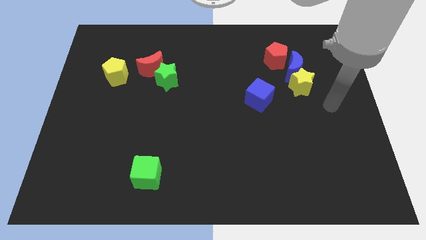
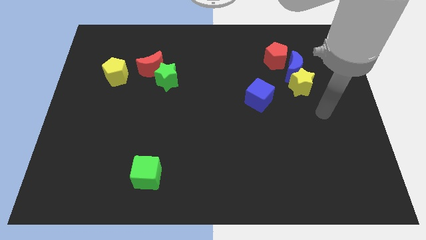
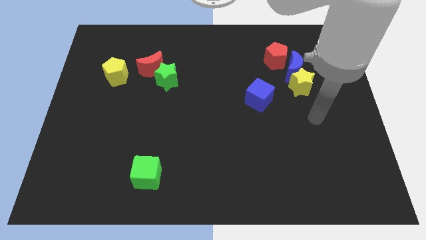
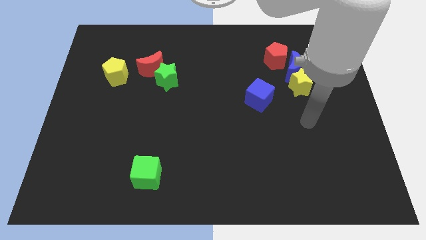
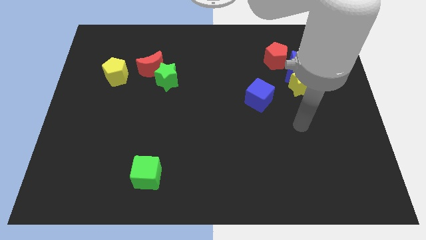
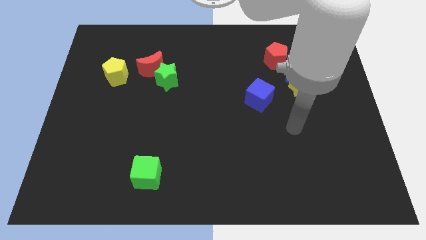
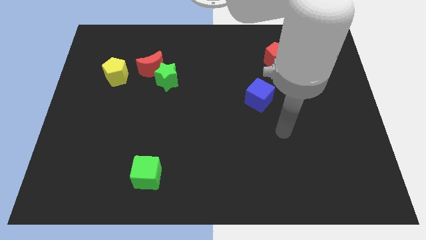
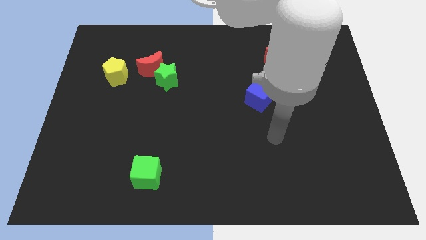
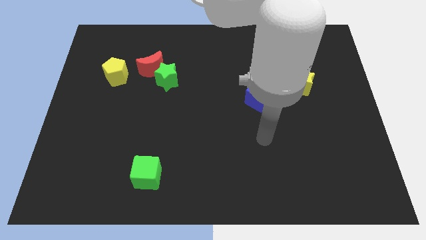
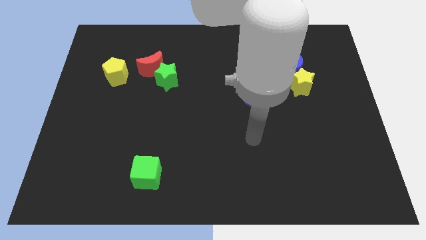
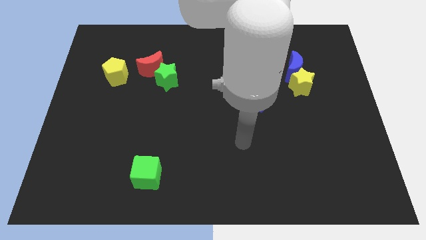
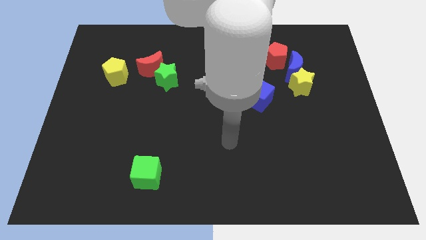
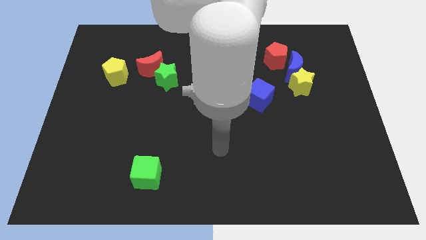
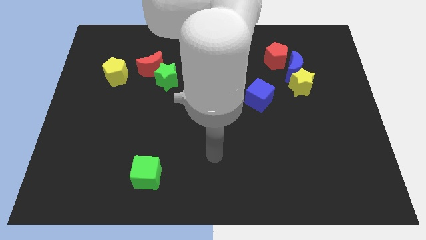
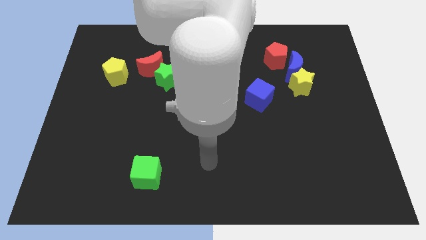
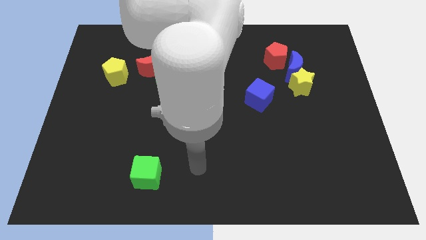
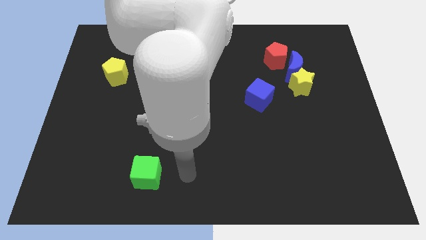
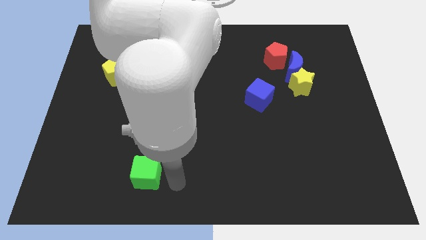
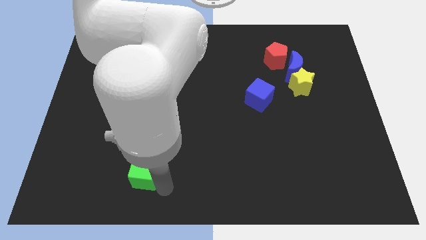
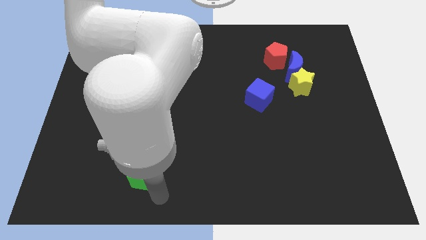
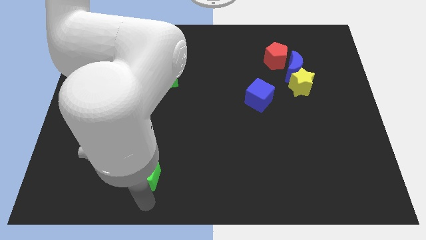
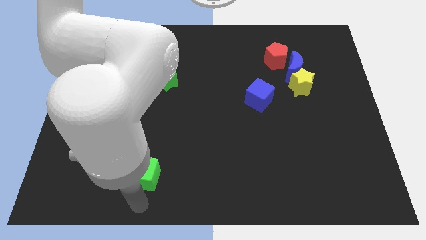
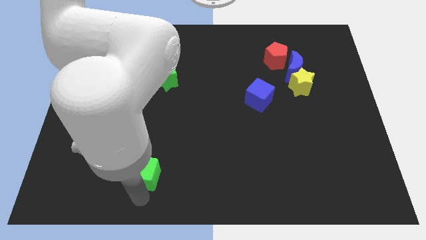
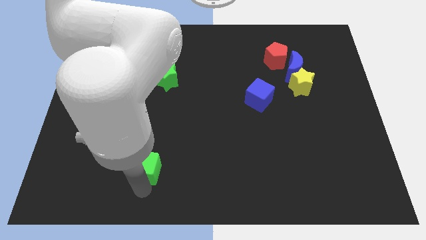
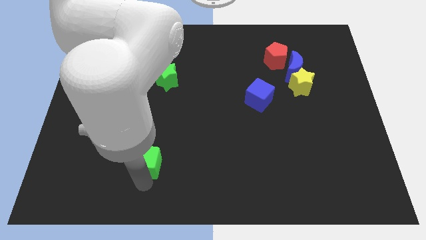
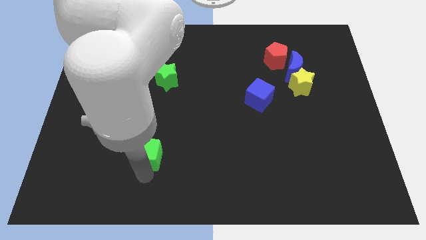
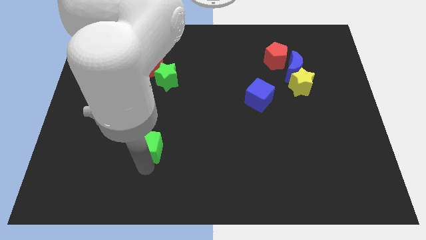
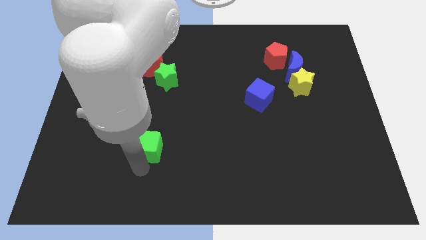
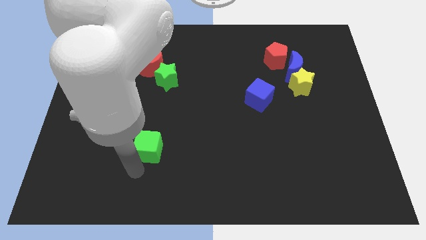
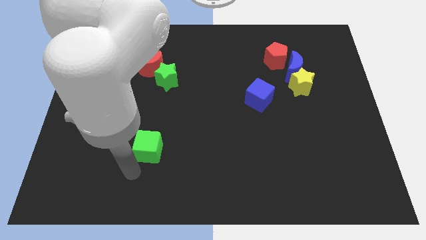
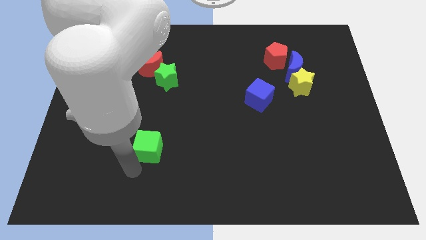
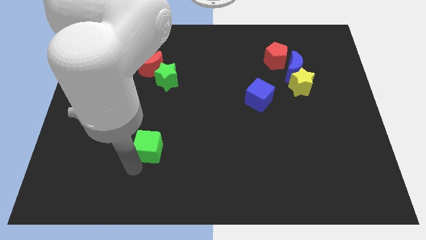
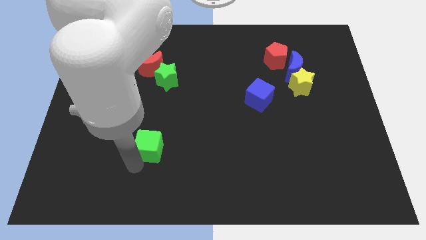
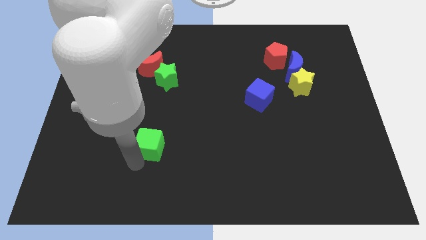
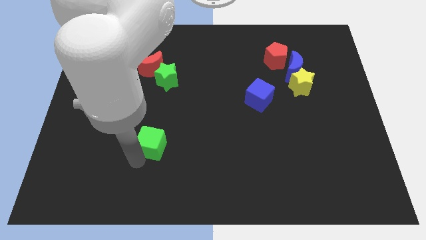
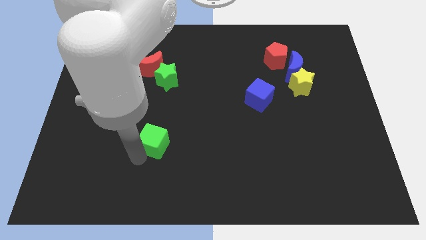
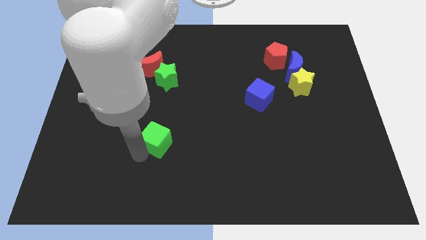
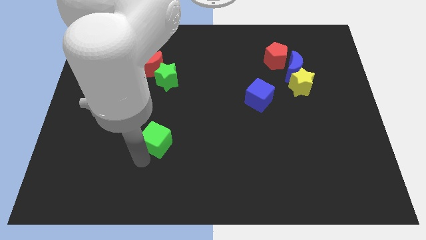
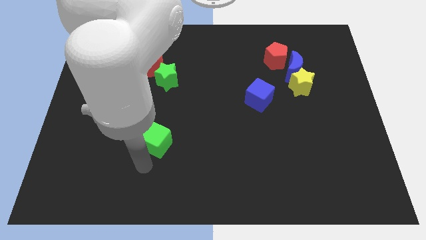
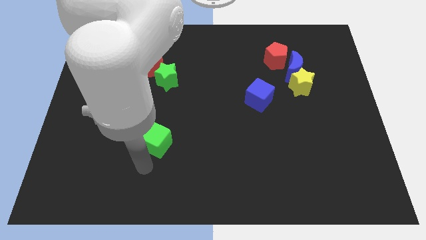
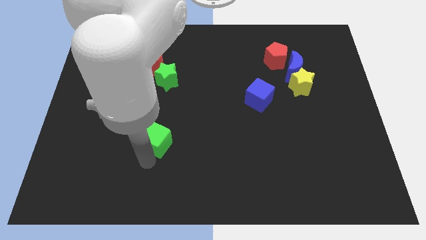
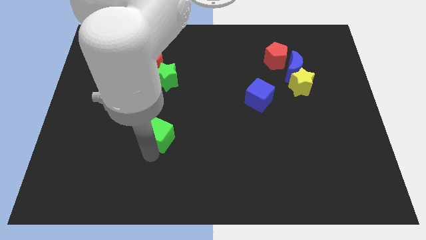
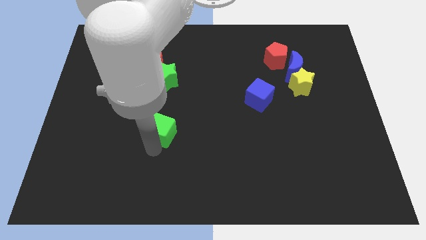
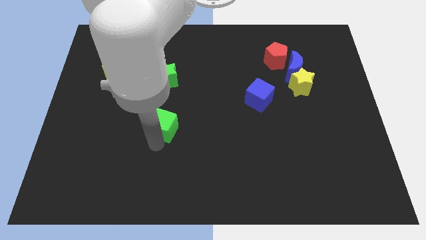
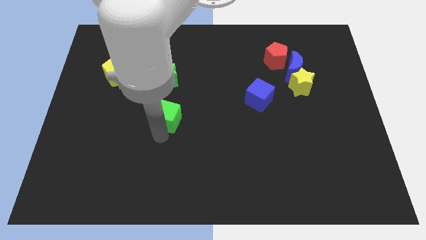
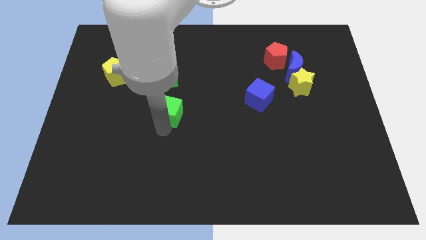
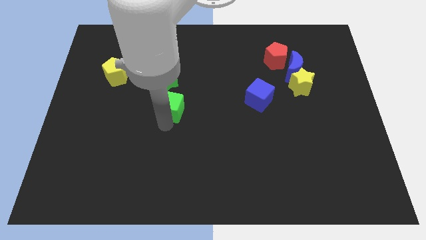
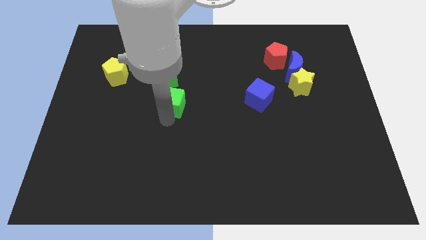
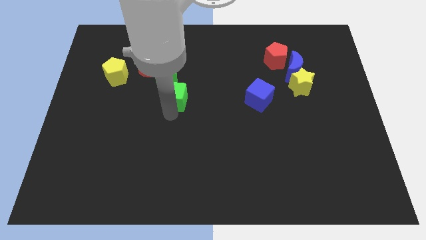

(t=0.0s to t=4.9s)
slide the green cube to the bottom right side of the red moon

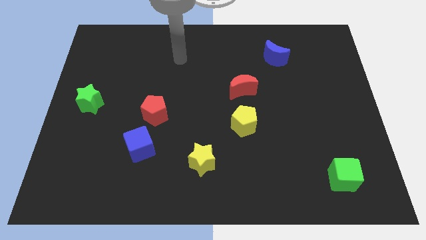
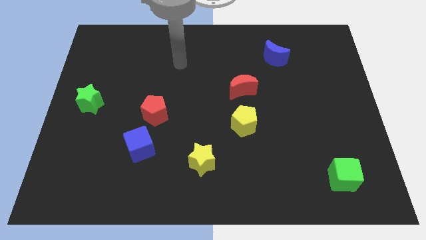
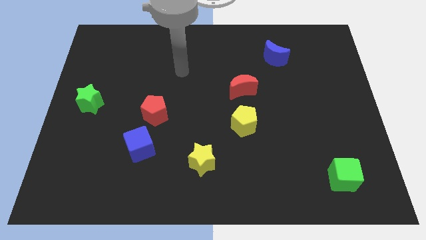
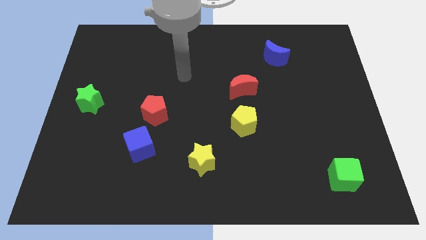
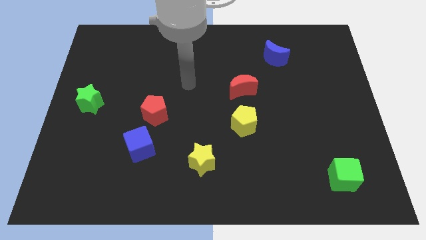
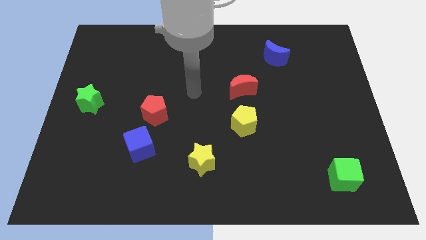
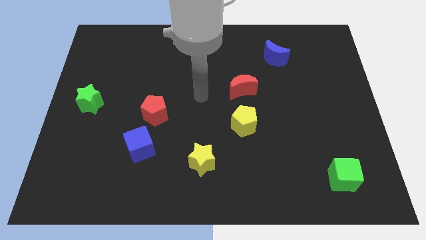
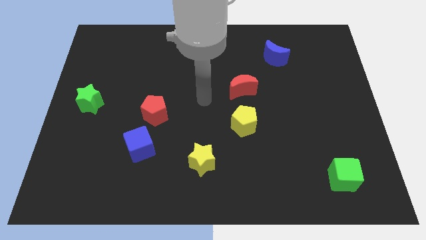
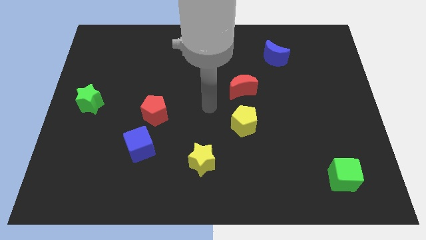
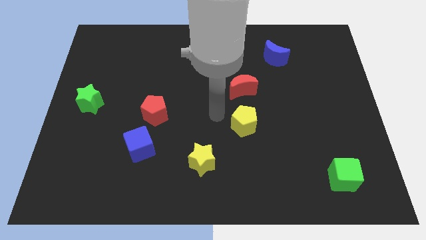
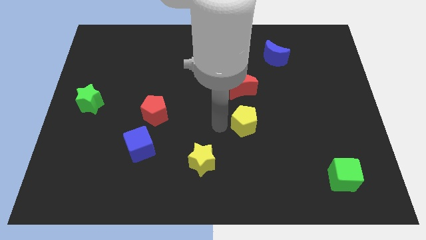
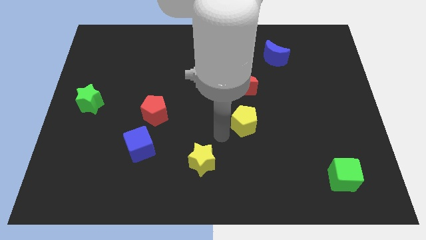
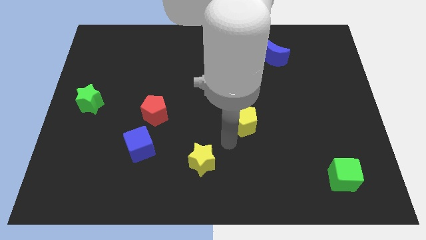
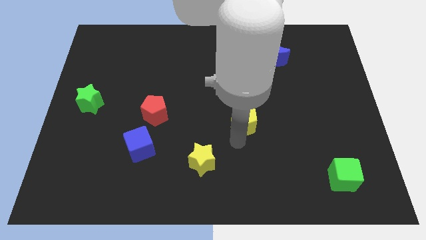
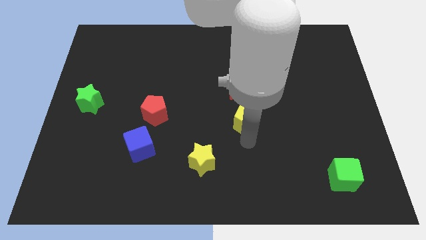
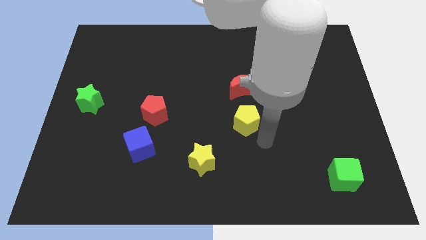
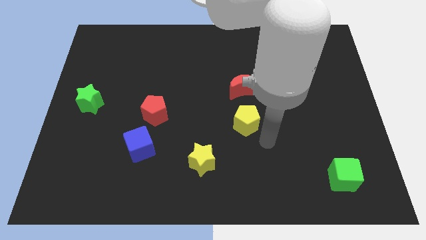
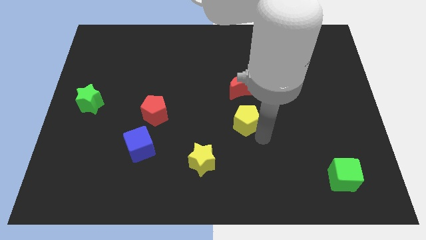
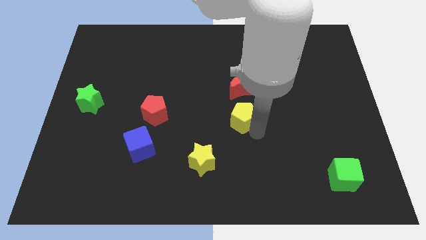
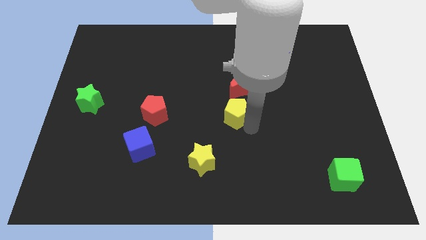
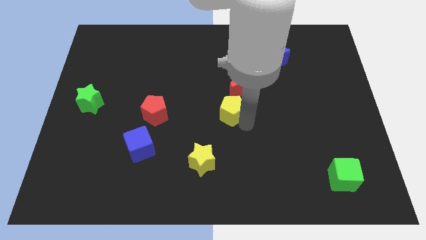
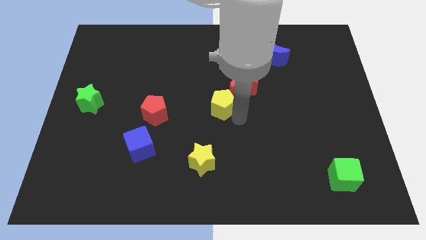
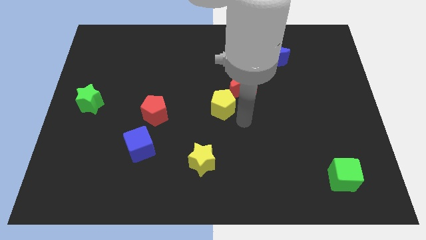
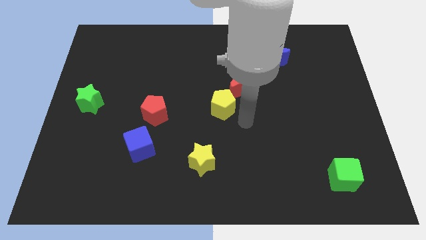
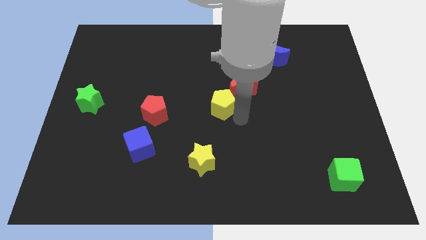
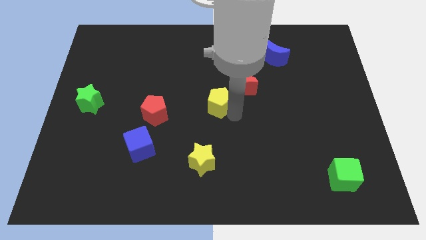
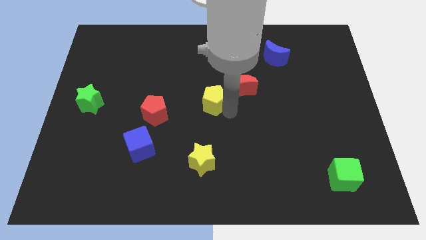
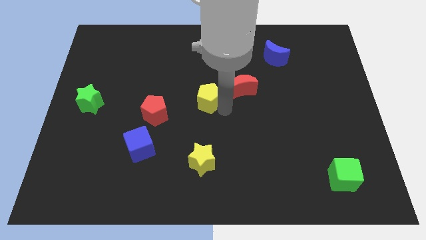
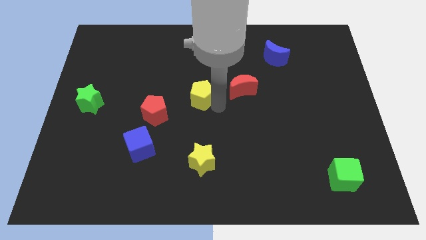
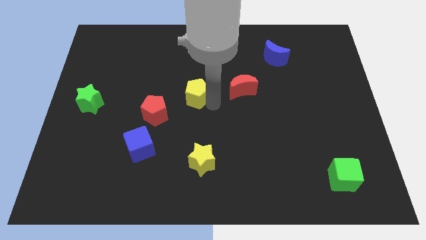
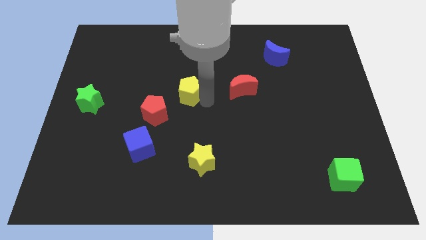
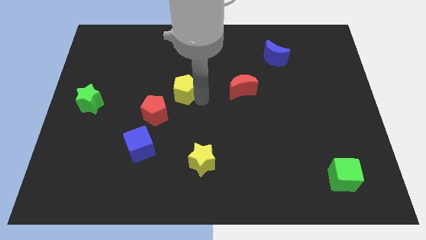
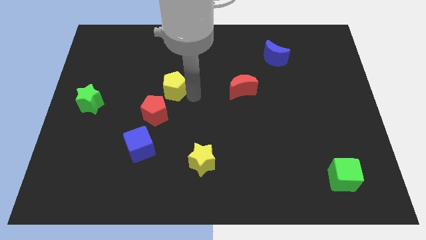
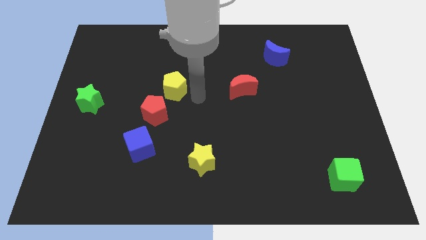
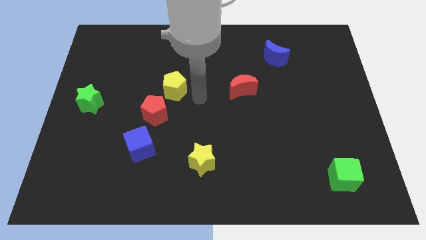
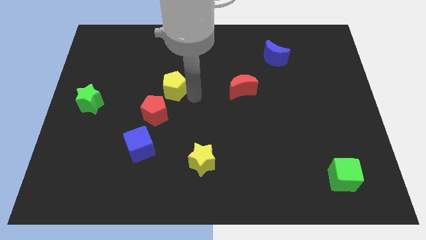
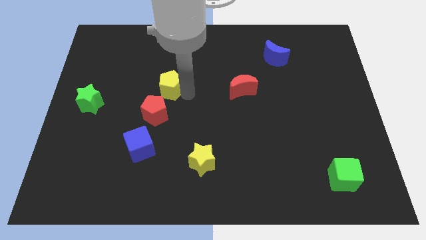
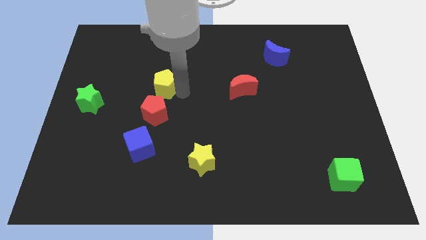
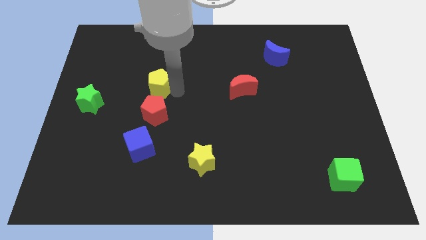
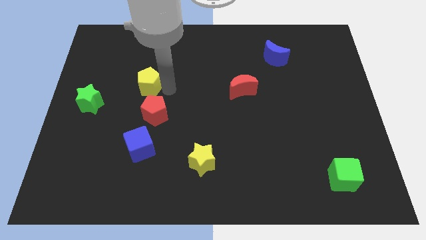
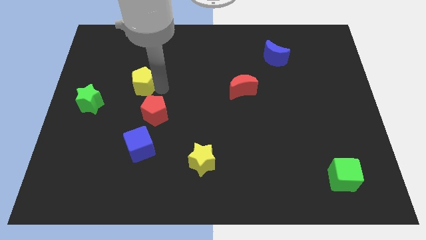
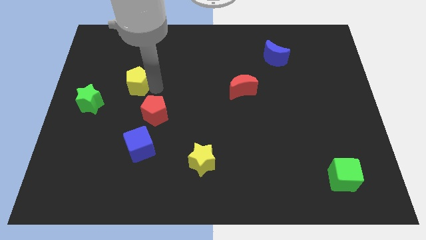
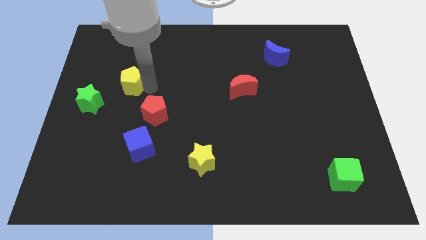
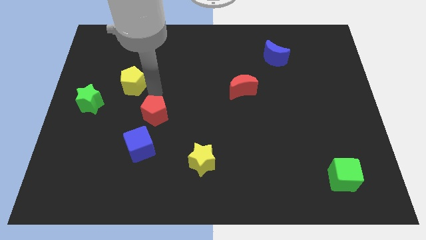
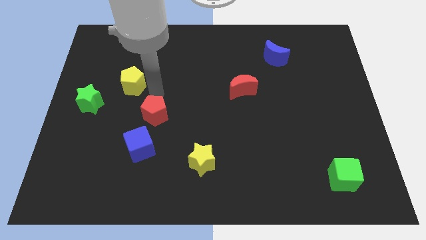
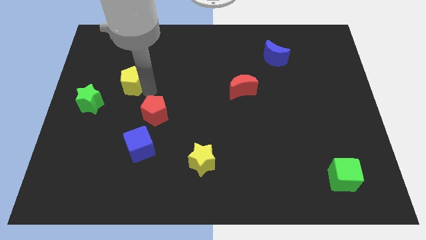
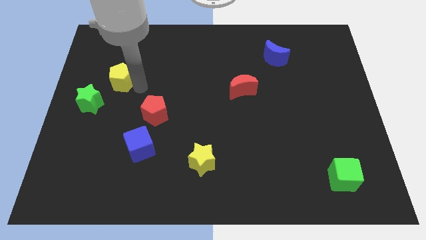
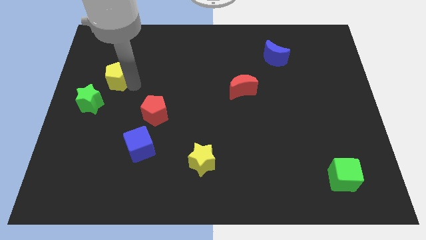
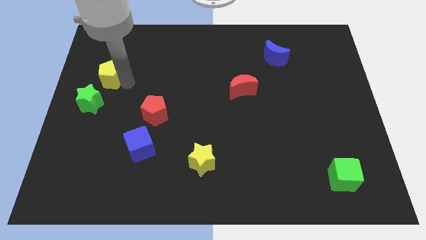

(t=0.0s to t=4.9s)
put the yellow pentagon to the top side of the green star
